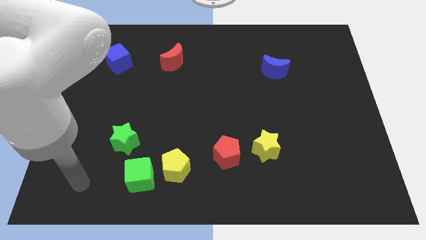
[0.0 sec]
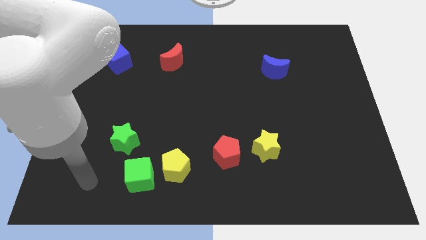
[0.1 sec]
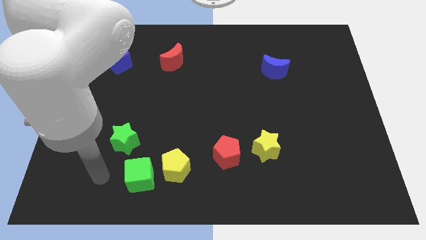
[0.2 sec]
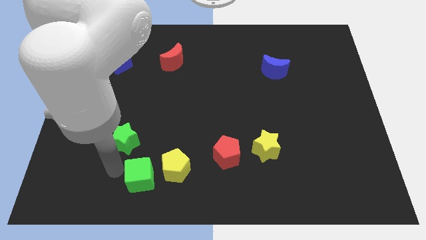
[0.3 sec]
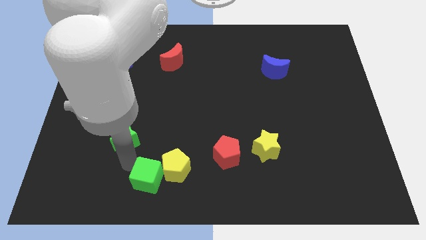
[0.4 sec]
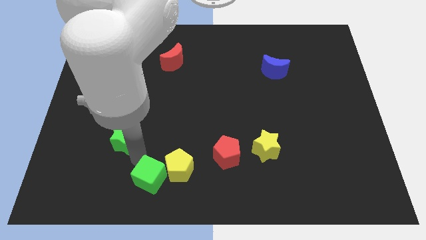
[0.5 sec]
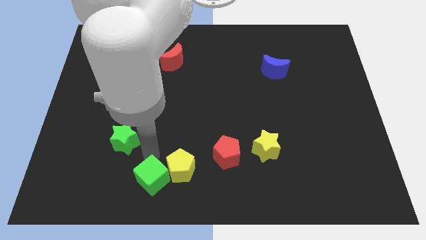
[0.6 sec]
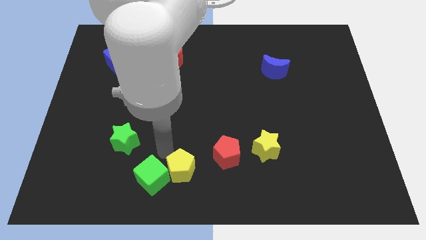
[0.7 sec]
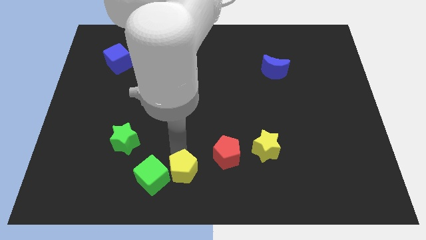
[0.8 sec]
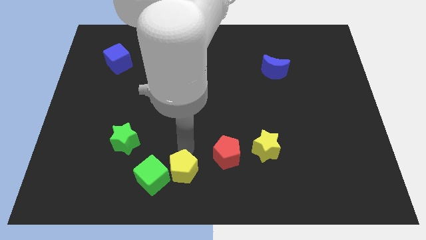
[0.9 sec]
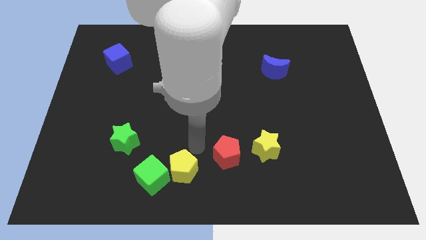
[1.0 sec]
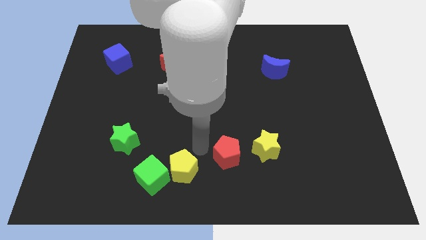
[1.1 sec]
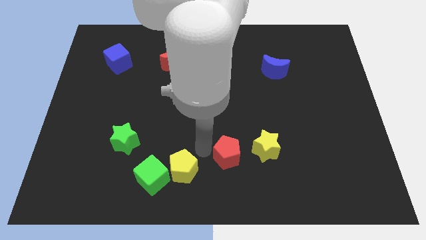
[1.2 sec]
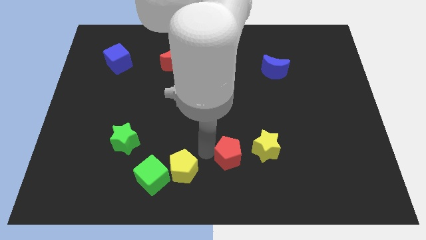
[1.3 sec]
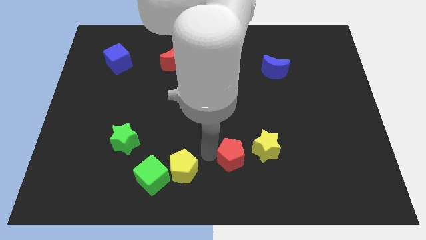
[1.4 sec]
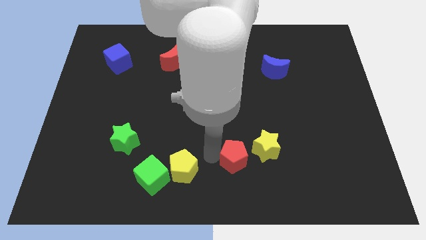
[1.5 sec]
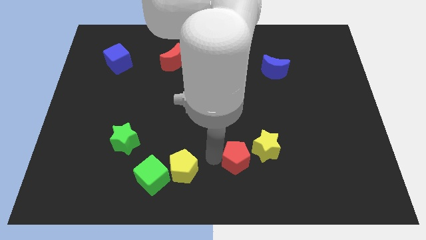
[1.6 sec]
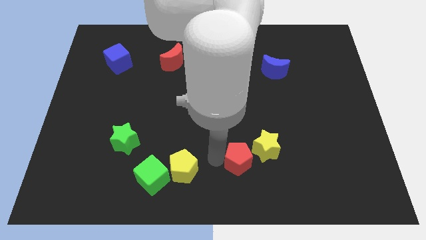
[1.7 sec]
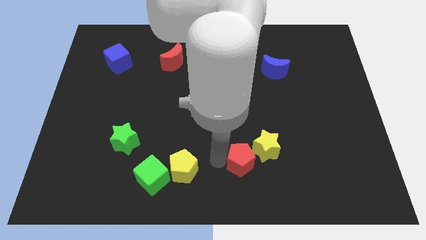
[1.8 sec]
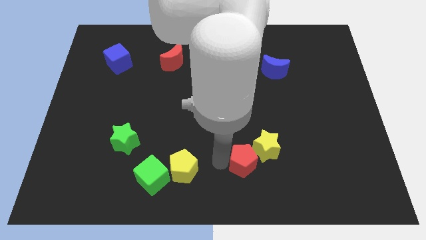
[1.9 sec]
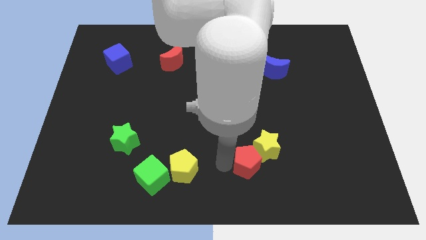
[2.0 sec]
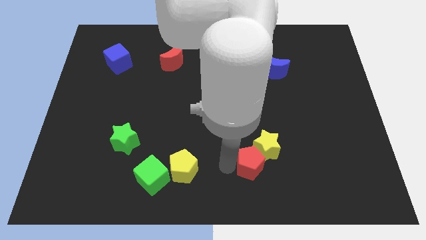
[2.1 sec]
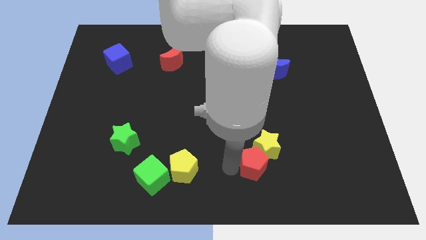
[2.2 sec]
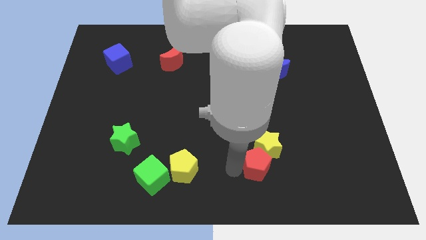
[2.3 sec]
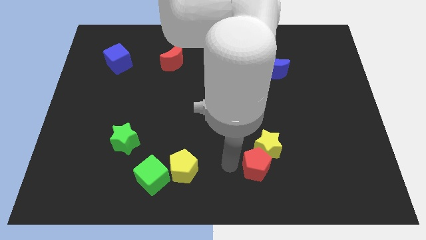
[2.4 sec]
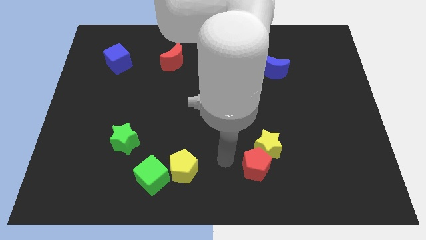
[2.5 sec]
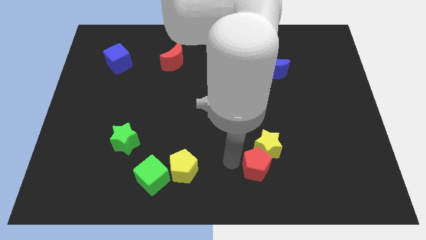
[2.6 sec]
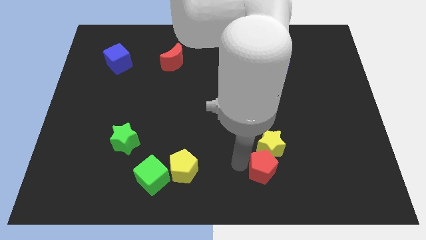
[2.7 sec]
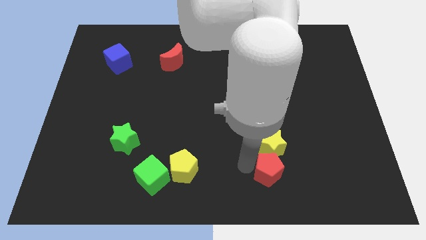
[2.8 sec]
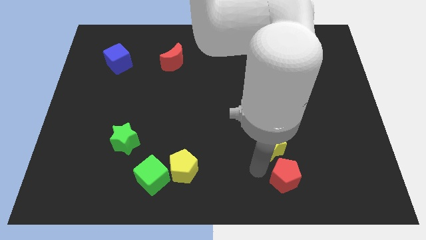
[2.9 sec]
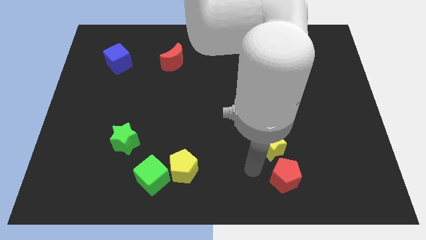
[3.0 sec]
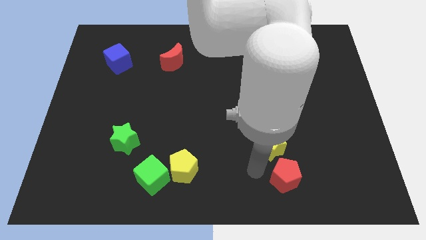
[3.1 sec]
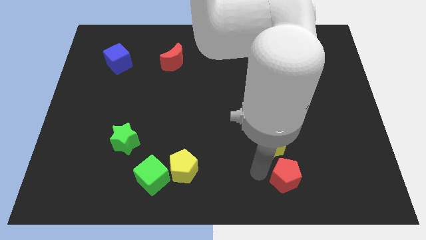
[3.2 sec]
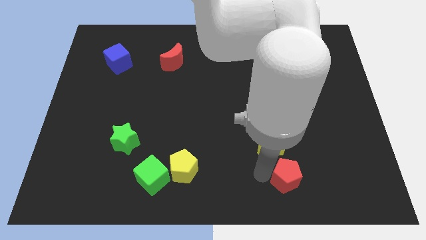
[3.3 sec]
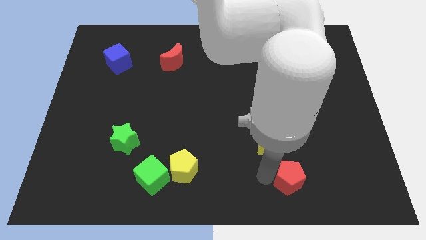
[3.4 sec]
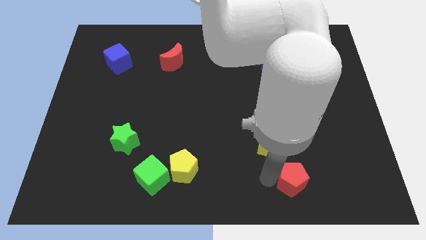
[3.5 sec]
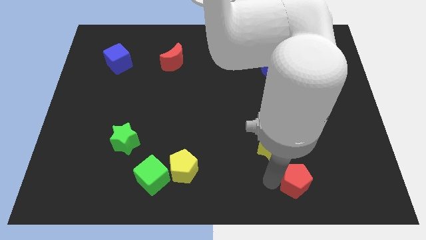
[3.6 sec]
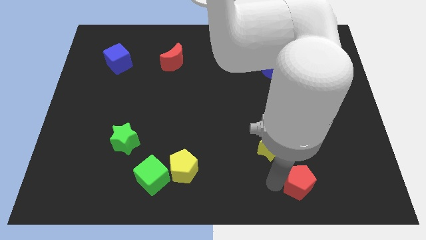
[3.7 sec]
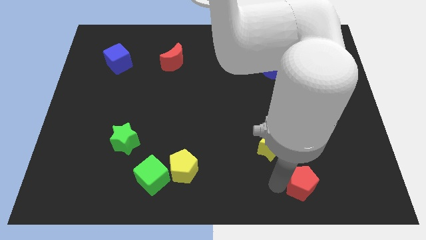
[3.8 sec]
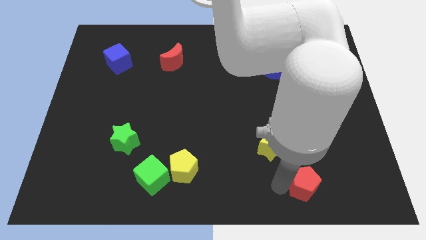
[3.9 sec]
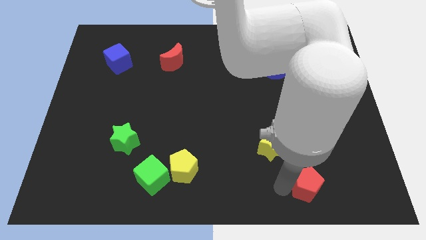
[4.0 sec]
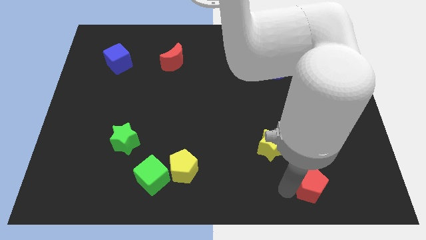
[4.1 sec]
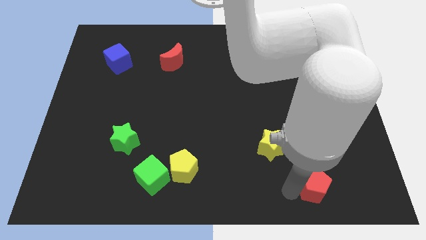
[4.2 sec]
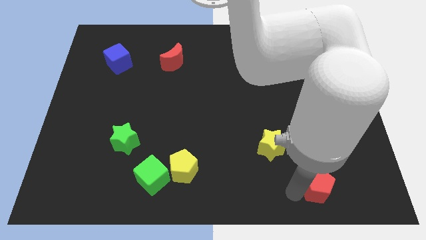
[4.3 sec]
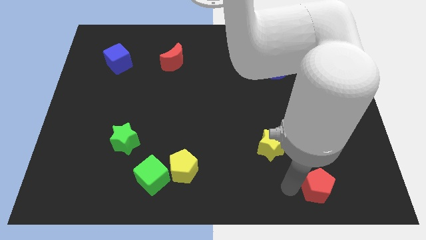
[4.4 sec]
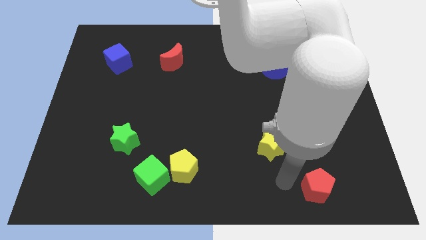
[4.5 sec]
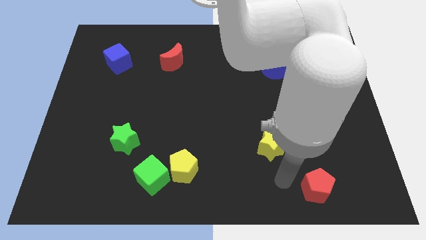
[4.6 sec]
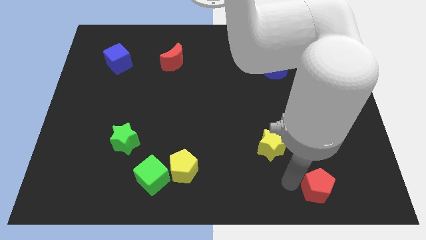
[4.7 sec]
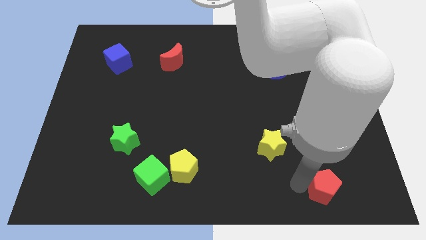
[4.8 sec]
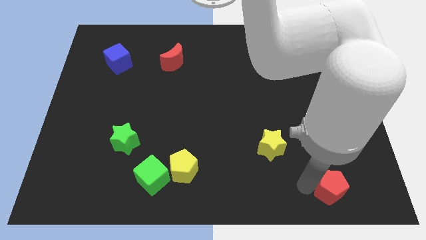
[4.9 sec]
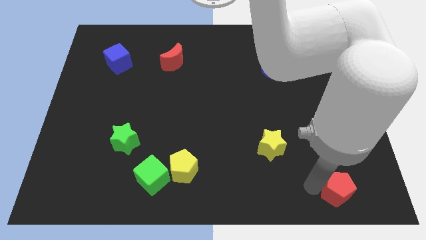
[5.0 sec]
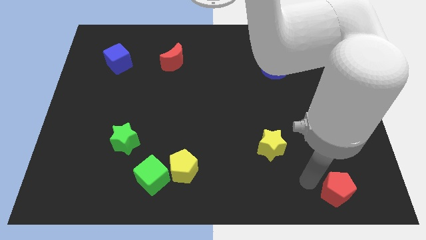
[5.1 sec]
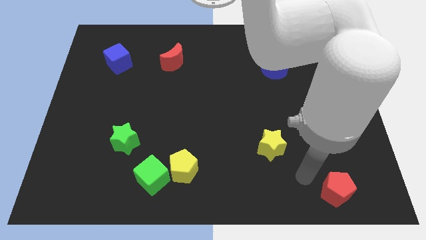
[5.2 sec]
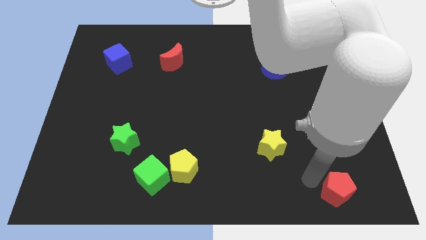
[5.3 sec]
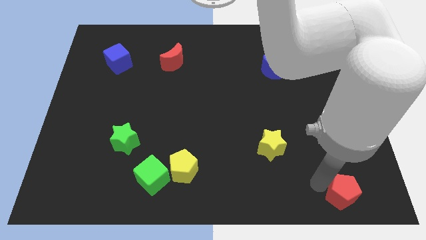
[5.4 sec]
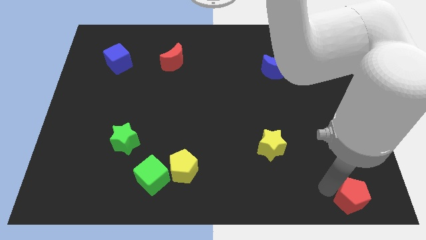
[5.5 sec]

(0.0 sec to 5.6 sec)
slide the red pentagon to the bottom right corner

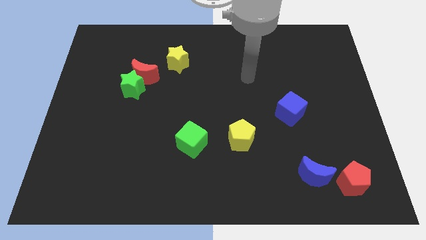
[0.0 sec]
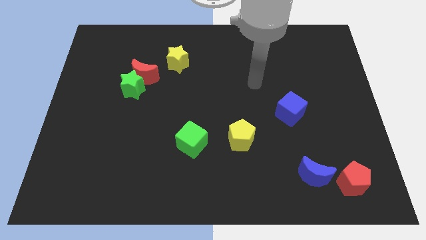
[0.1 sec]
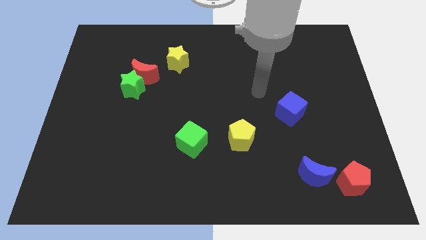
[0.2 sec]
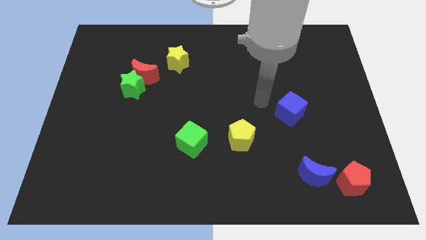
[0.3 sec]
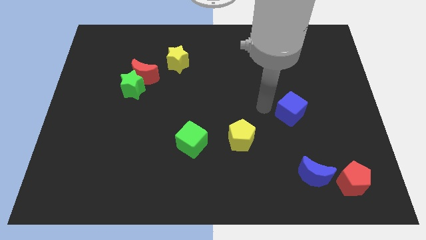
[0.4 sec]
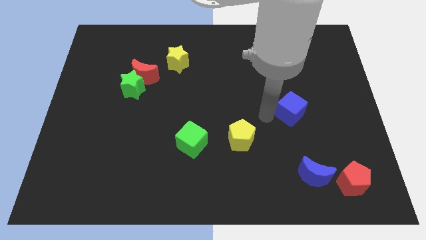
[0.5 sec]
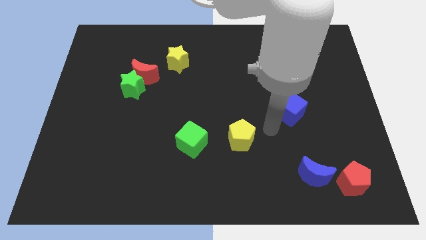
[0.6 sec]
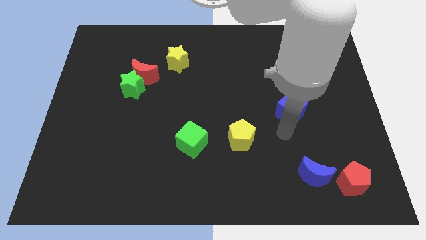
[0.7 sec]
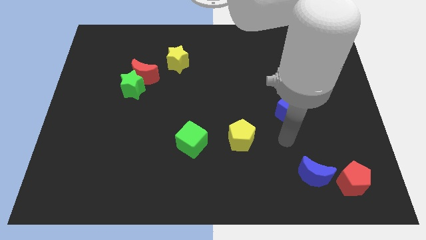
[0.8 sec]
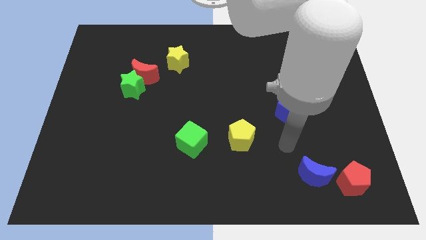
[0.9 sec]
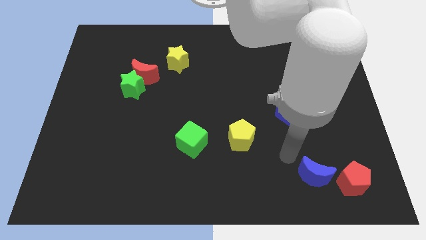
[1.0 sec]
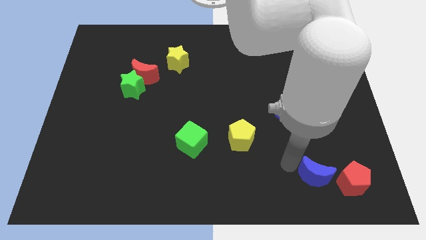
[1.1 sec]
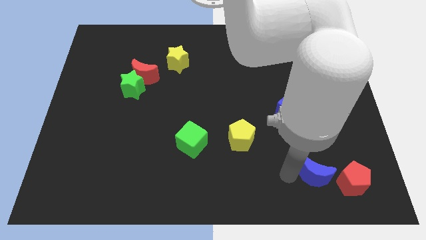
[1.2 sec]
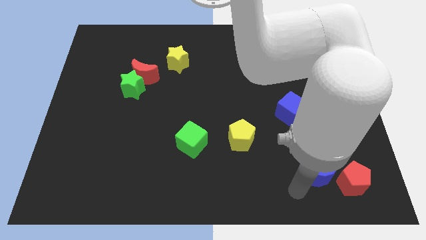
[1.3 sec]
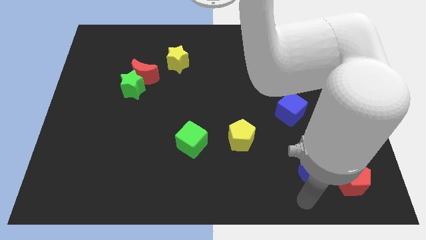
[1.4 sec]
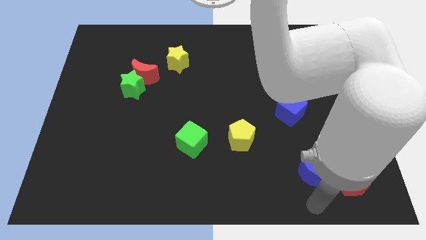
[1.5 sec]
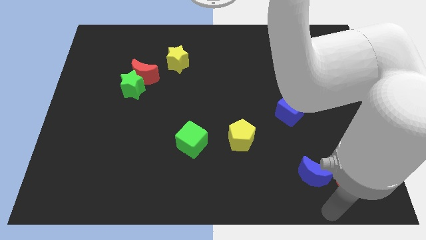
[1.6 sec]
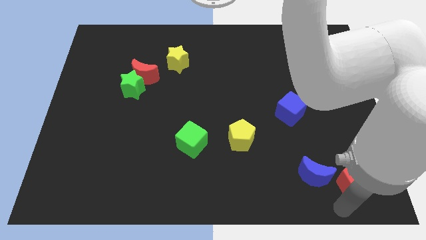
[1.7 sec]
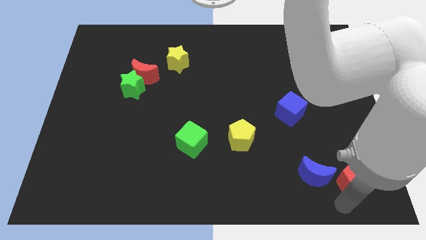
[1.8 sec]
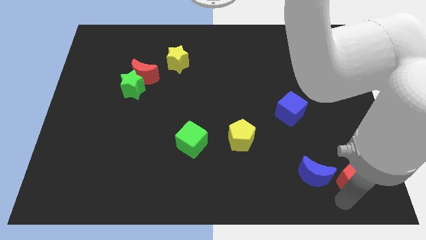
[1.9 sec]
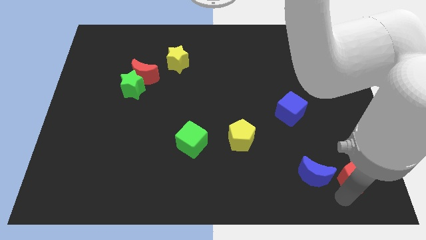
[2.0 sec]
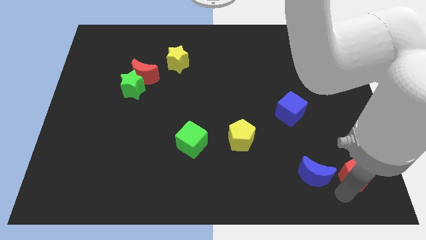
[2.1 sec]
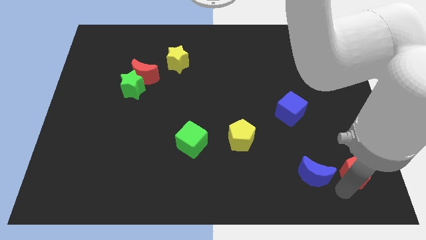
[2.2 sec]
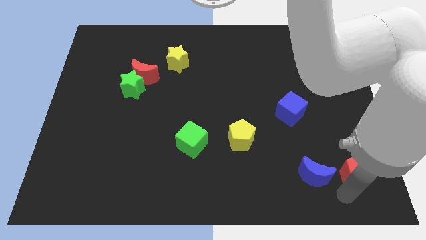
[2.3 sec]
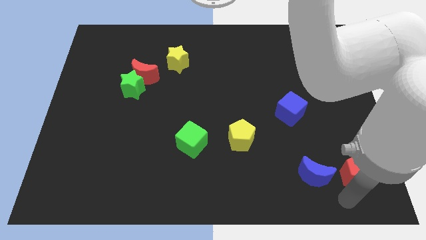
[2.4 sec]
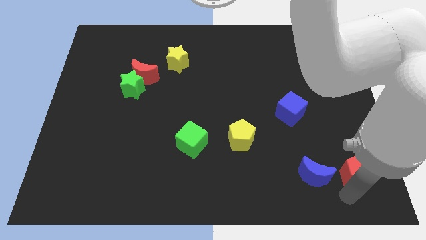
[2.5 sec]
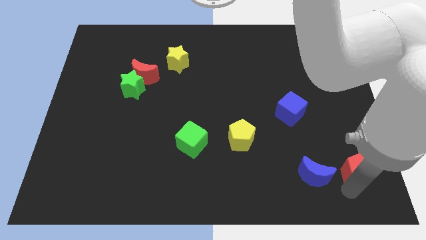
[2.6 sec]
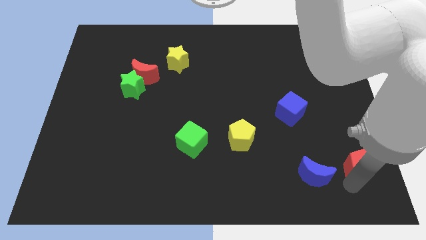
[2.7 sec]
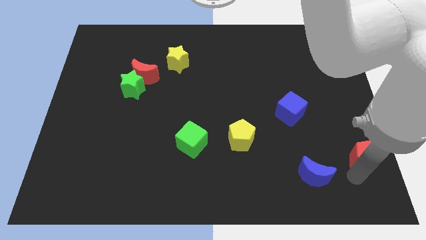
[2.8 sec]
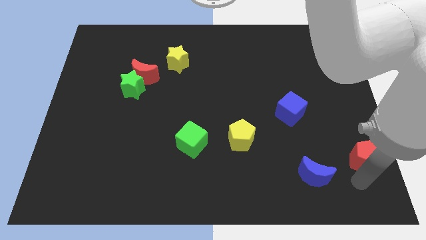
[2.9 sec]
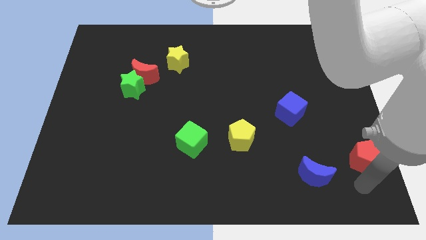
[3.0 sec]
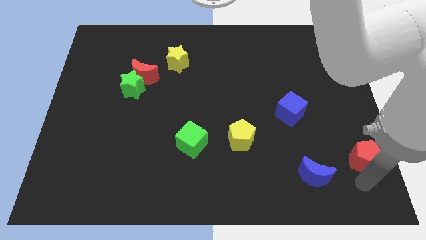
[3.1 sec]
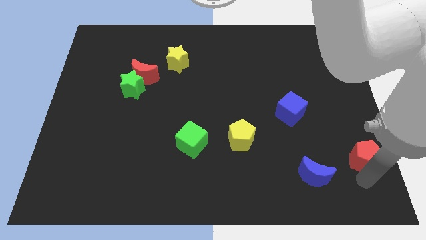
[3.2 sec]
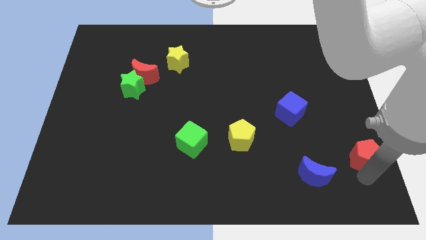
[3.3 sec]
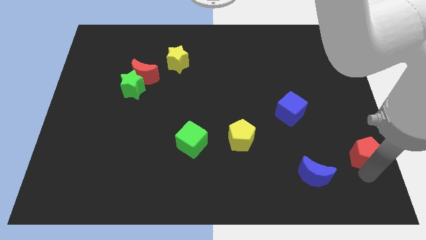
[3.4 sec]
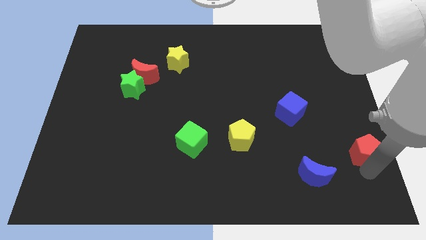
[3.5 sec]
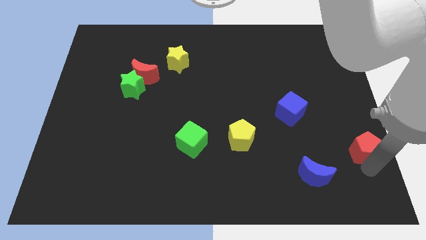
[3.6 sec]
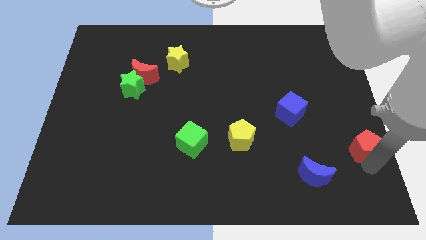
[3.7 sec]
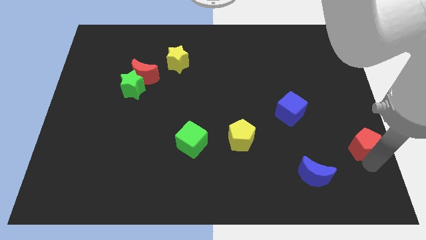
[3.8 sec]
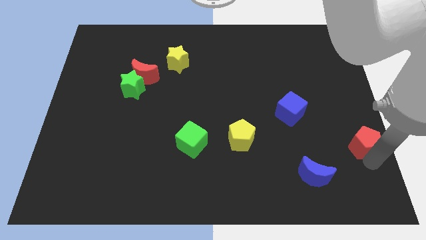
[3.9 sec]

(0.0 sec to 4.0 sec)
put the red pentagon to the right side
